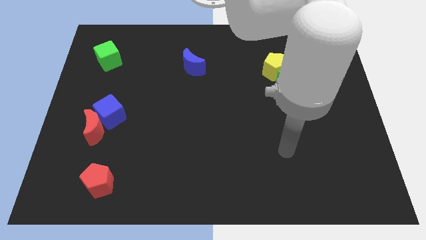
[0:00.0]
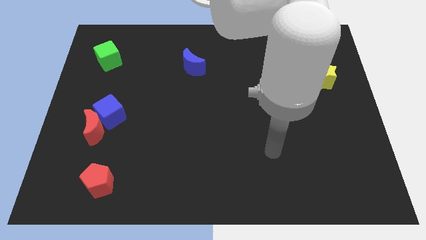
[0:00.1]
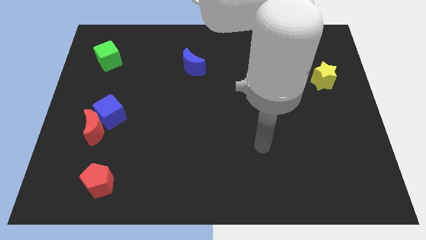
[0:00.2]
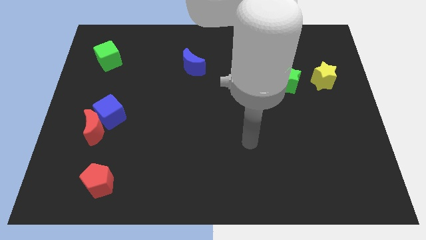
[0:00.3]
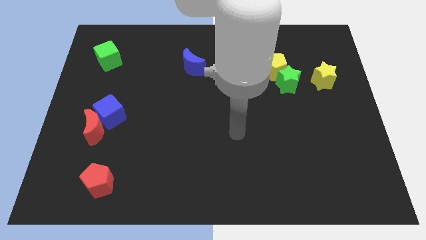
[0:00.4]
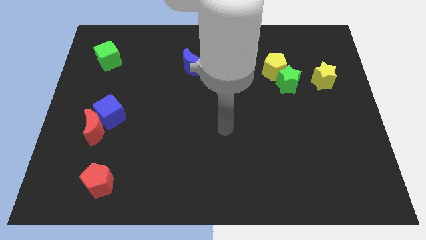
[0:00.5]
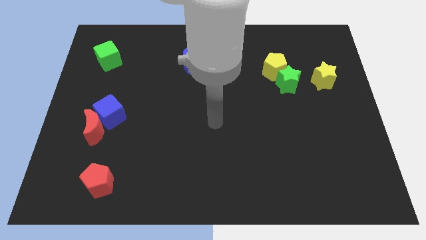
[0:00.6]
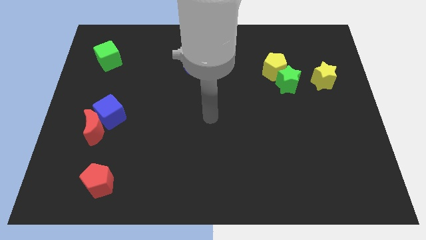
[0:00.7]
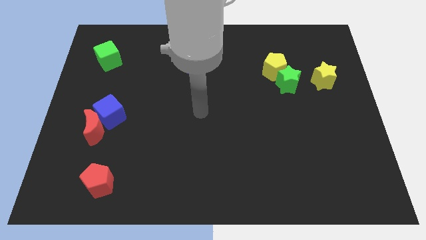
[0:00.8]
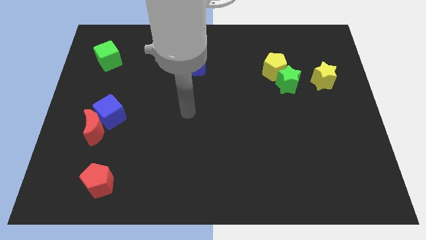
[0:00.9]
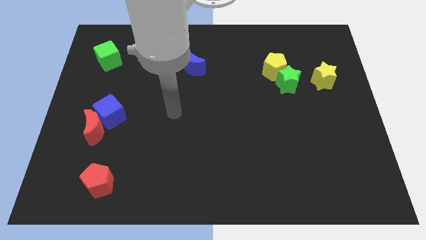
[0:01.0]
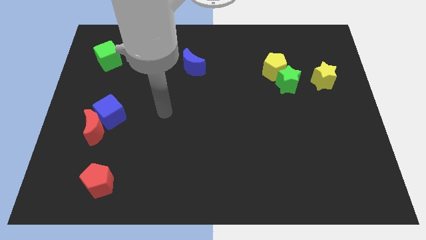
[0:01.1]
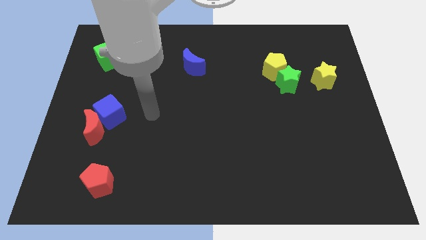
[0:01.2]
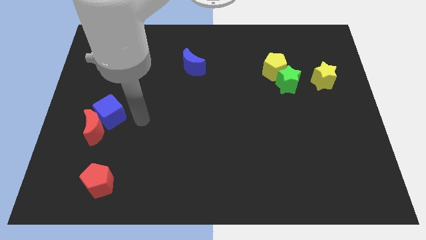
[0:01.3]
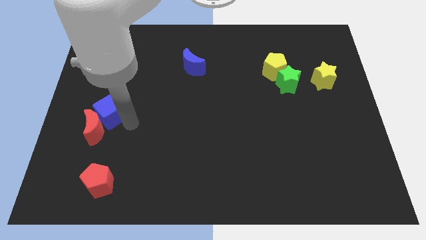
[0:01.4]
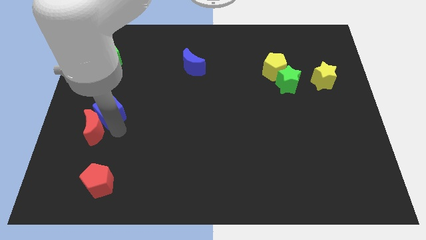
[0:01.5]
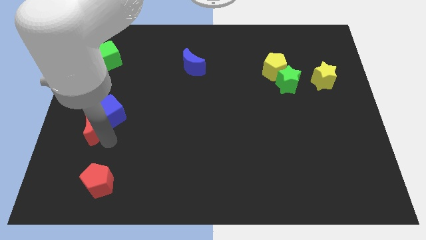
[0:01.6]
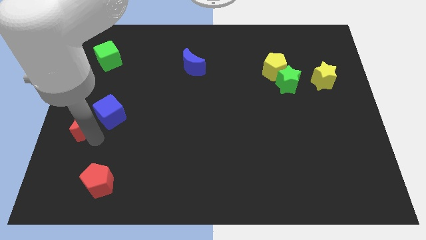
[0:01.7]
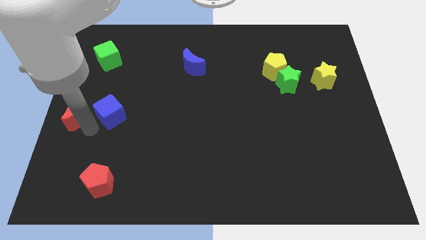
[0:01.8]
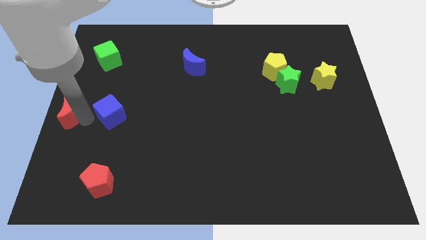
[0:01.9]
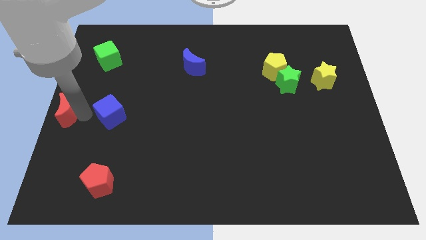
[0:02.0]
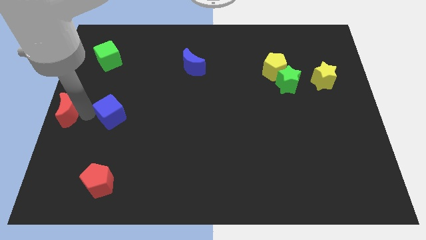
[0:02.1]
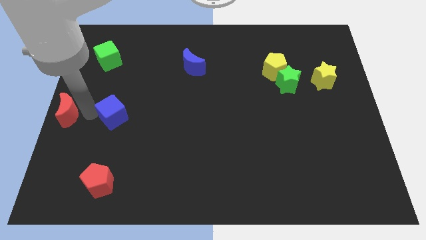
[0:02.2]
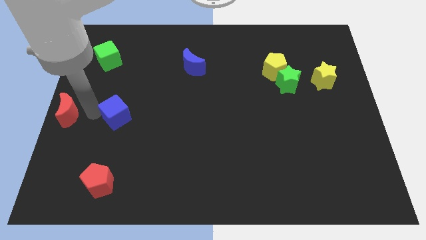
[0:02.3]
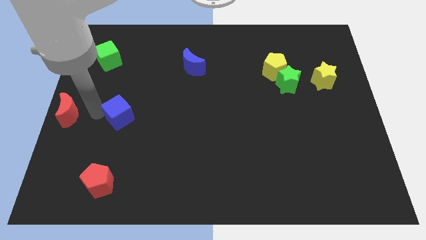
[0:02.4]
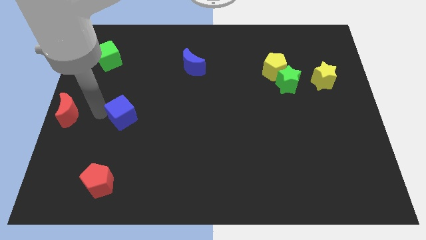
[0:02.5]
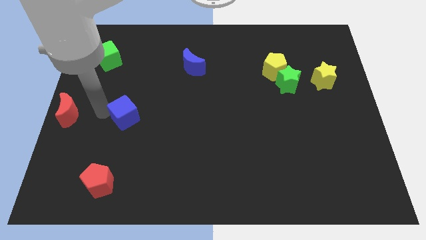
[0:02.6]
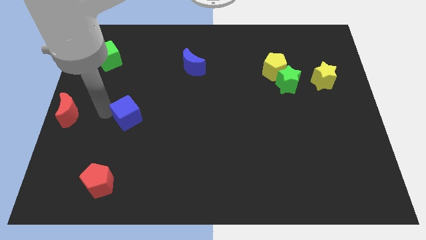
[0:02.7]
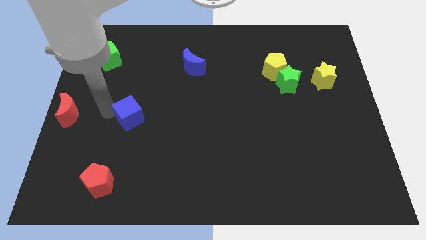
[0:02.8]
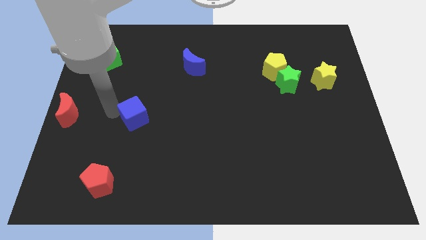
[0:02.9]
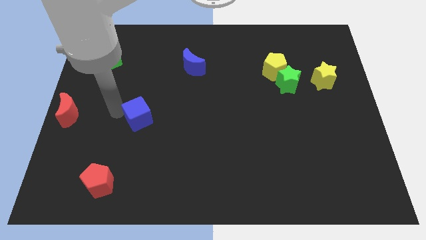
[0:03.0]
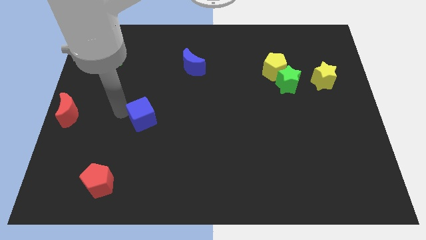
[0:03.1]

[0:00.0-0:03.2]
slightly slide the blue cube right

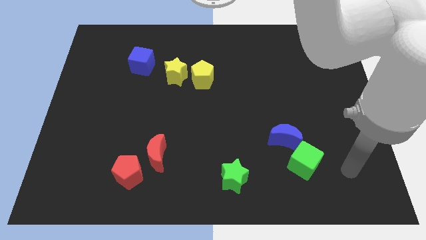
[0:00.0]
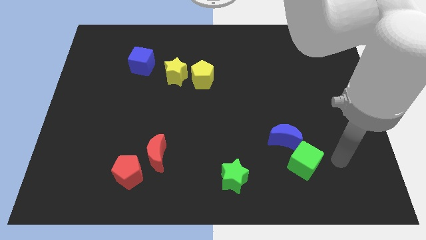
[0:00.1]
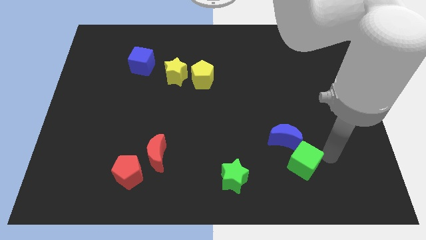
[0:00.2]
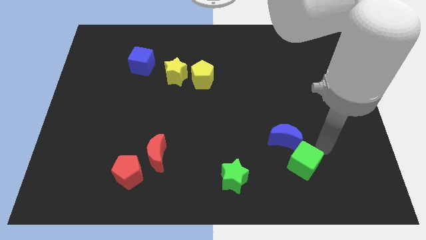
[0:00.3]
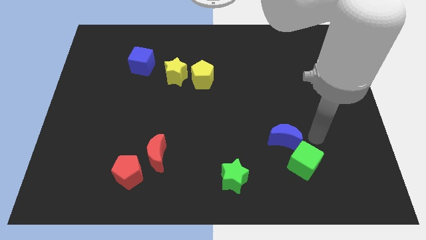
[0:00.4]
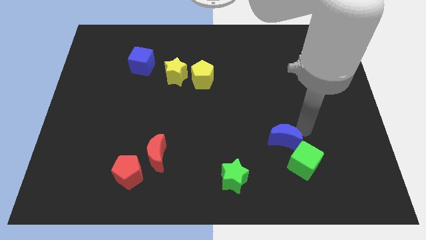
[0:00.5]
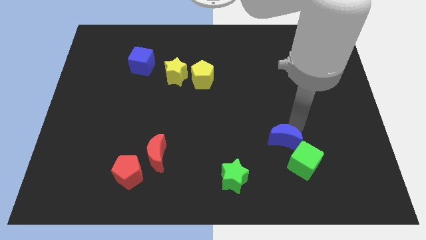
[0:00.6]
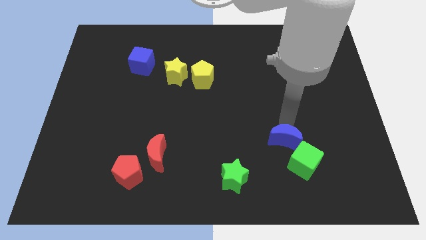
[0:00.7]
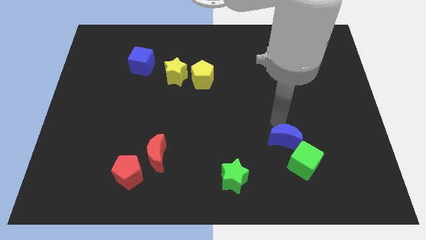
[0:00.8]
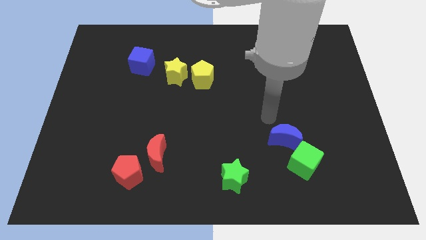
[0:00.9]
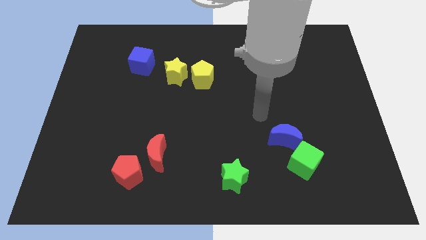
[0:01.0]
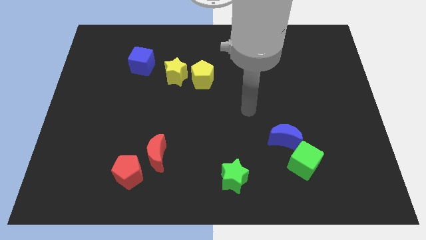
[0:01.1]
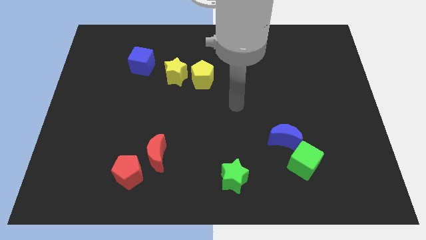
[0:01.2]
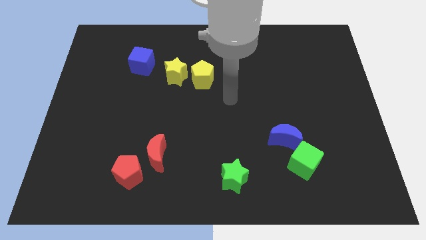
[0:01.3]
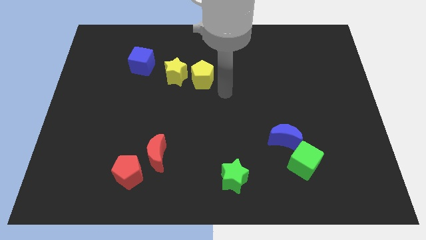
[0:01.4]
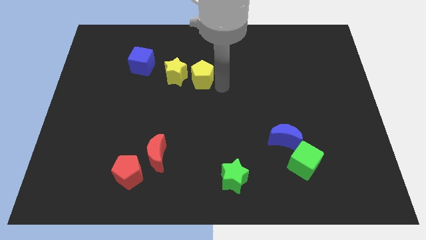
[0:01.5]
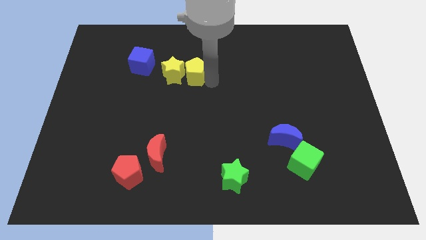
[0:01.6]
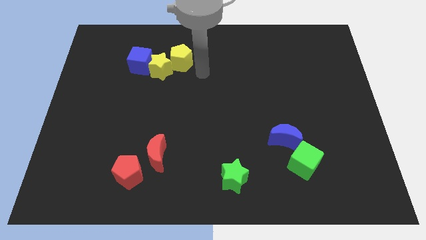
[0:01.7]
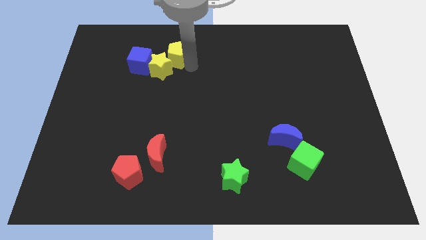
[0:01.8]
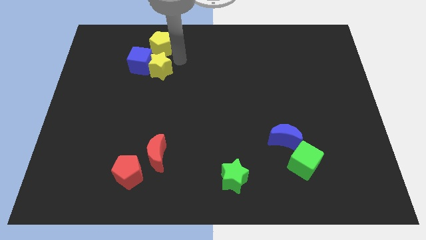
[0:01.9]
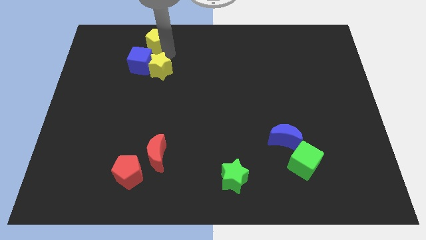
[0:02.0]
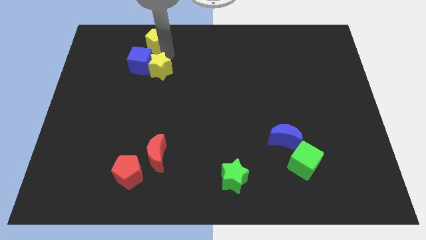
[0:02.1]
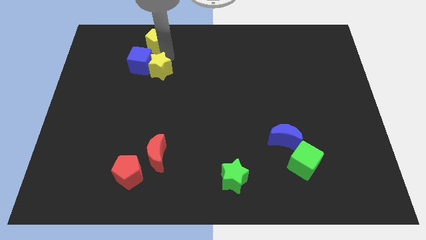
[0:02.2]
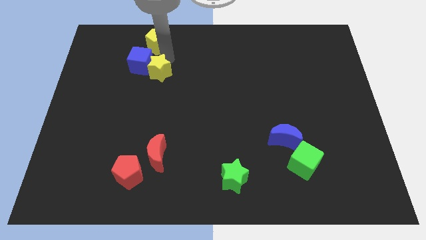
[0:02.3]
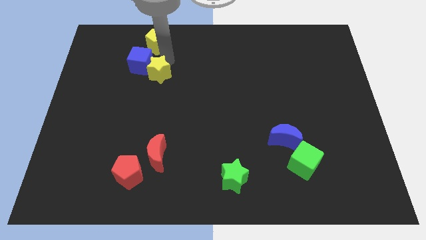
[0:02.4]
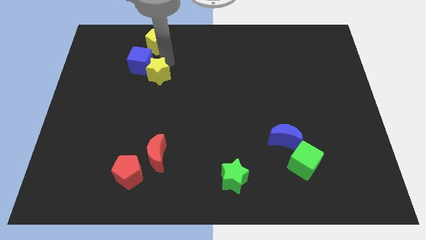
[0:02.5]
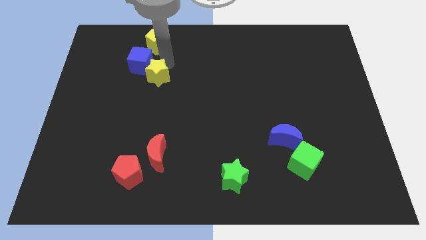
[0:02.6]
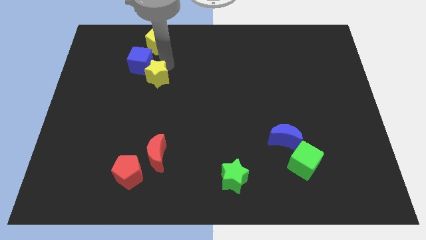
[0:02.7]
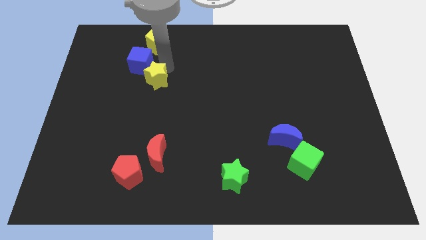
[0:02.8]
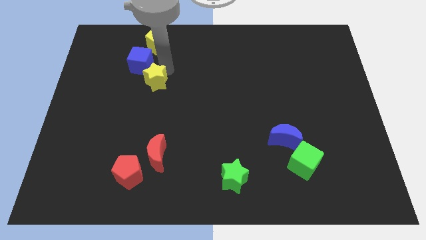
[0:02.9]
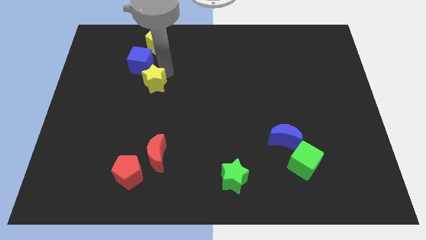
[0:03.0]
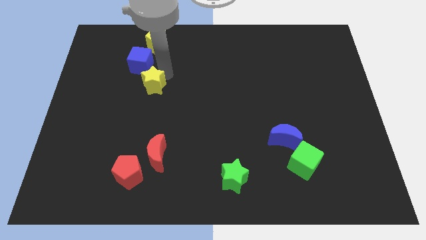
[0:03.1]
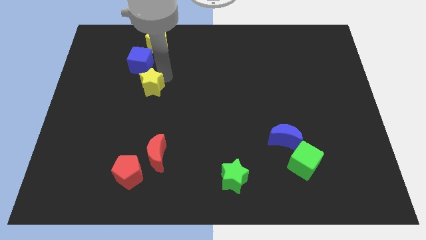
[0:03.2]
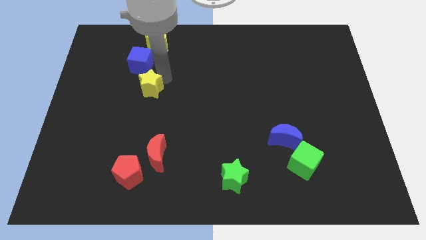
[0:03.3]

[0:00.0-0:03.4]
slide the yellow star downwards and to the left a little

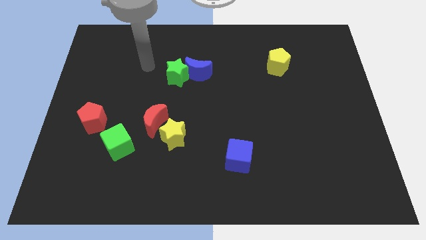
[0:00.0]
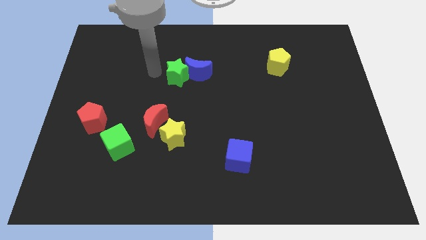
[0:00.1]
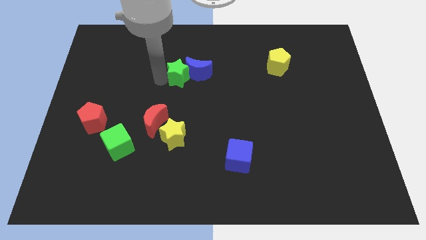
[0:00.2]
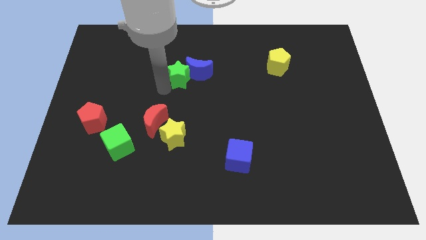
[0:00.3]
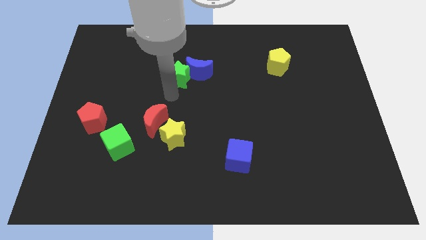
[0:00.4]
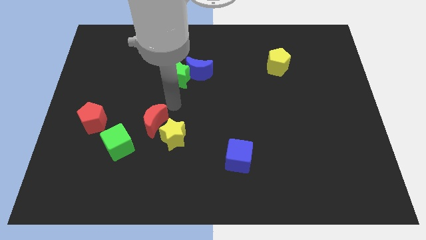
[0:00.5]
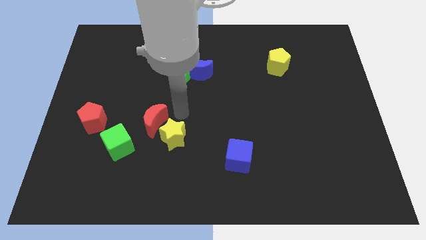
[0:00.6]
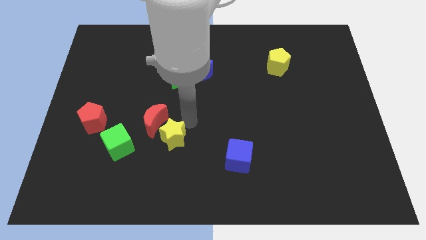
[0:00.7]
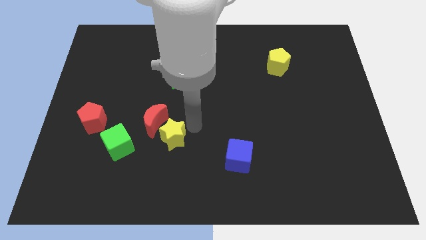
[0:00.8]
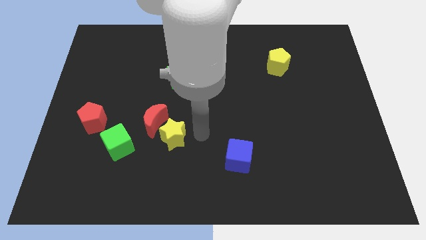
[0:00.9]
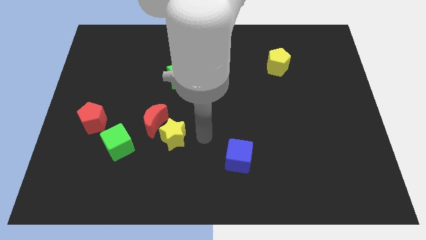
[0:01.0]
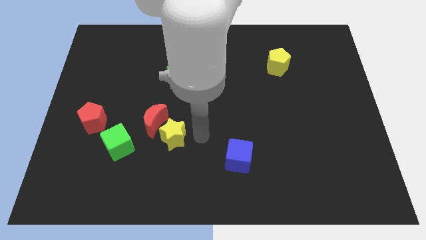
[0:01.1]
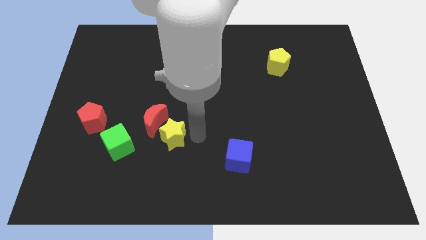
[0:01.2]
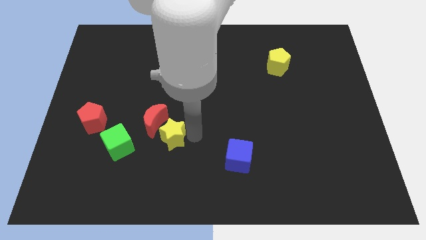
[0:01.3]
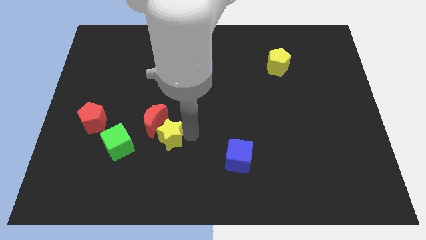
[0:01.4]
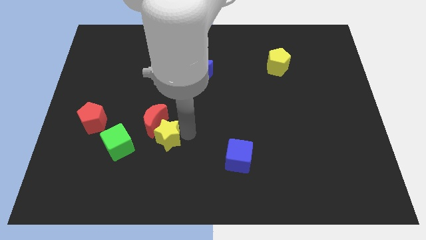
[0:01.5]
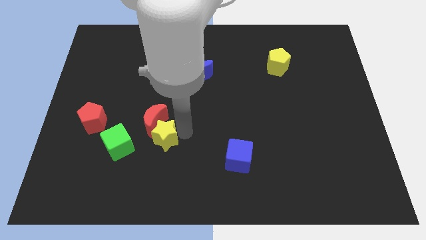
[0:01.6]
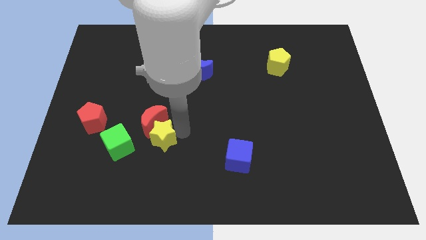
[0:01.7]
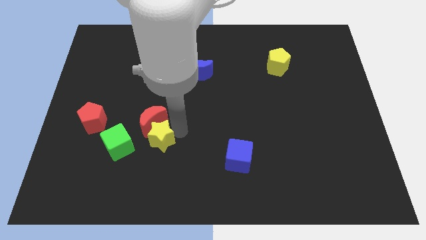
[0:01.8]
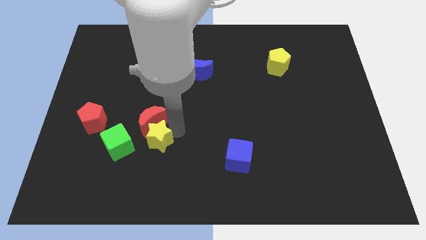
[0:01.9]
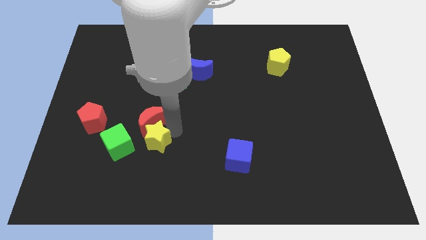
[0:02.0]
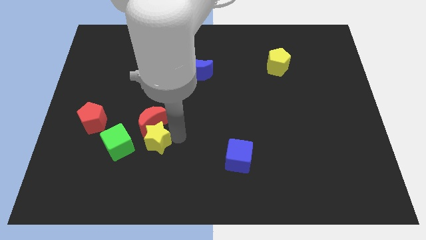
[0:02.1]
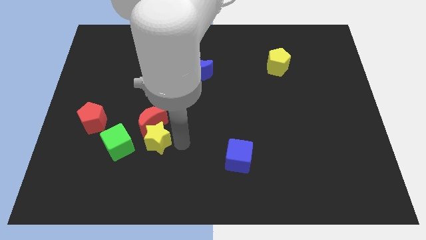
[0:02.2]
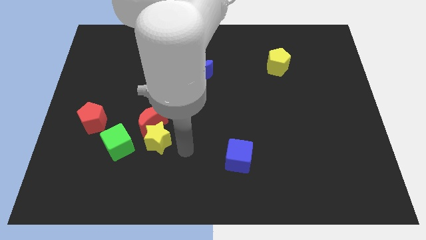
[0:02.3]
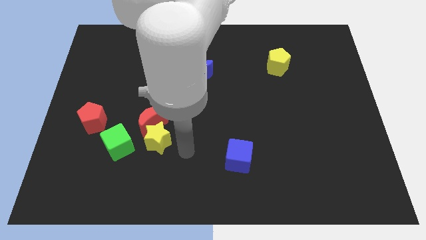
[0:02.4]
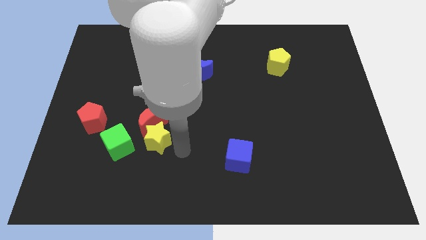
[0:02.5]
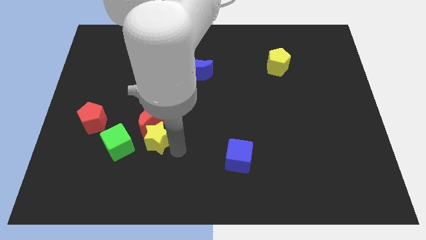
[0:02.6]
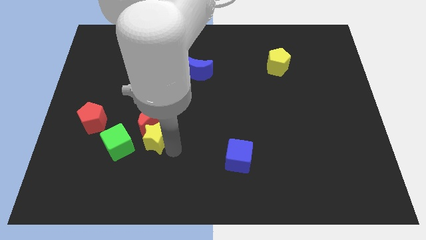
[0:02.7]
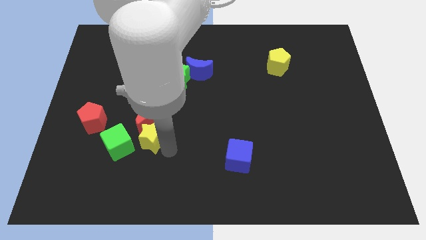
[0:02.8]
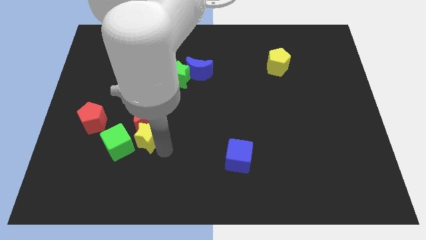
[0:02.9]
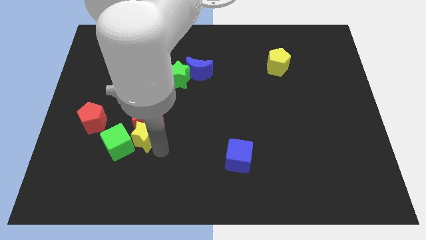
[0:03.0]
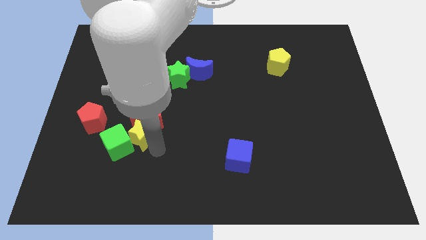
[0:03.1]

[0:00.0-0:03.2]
slightly push the yellow star left
